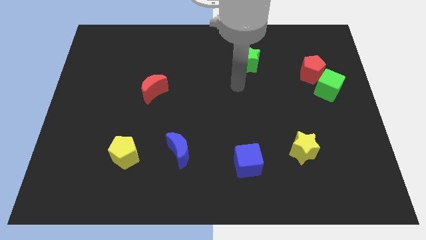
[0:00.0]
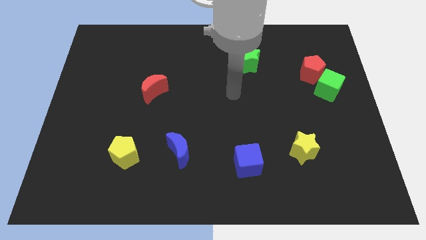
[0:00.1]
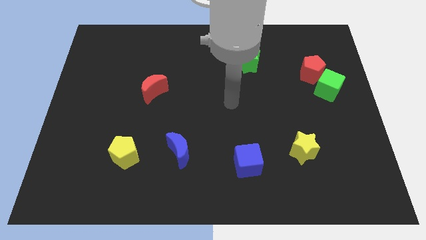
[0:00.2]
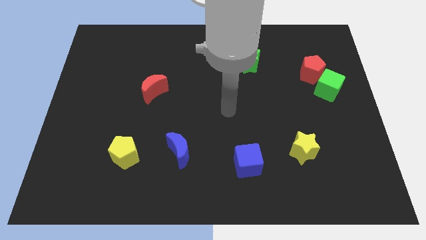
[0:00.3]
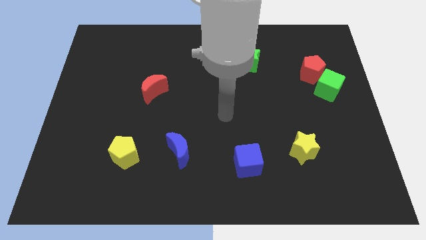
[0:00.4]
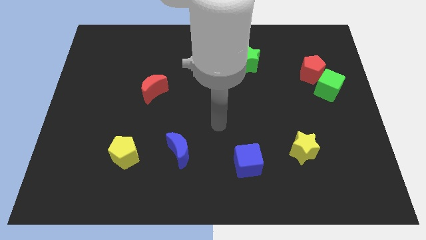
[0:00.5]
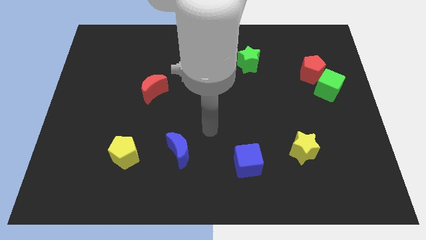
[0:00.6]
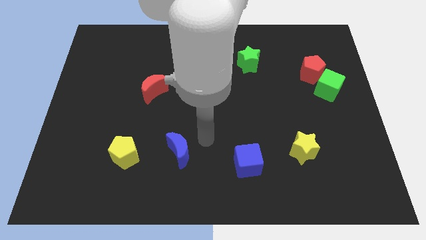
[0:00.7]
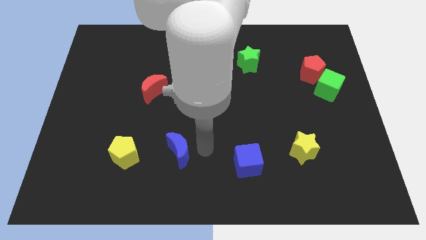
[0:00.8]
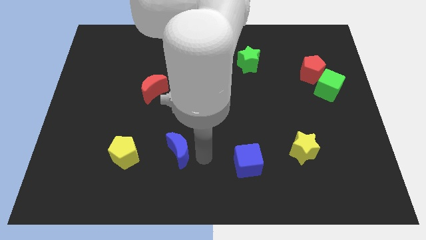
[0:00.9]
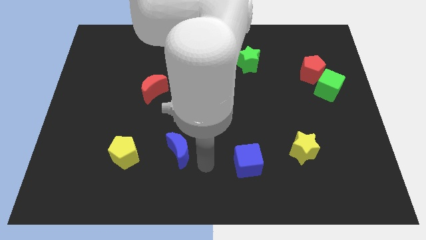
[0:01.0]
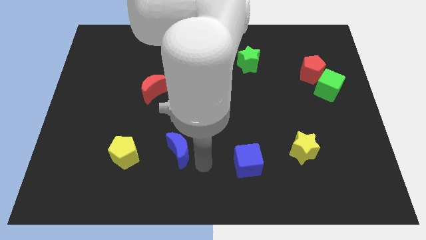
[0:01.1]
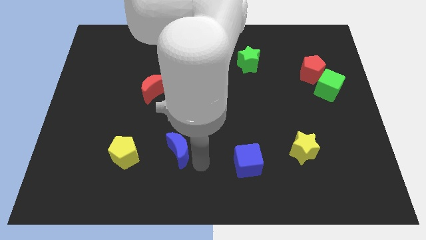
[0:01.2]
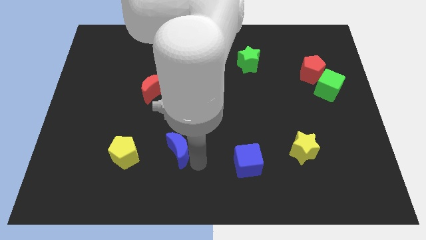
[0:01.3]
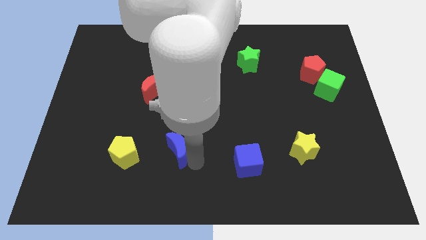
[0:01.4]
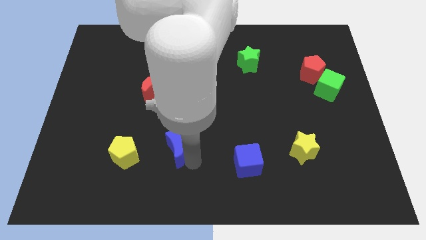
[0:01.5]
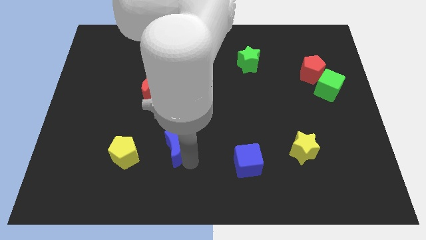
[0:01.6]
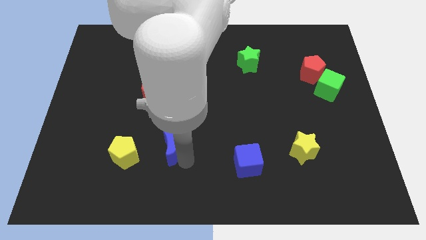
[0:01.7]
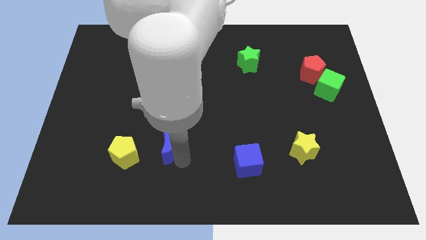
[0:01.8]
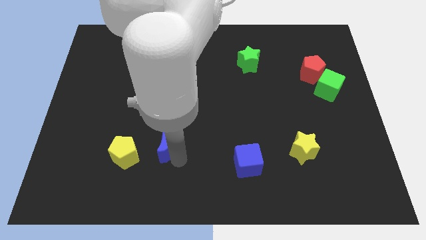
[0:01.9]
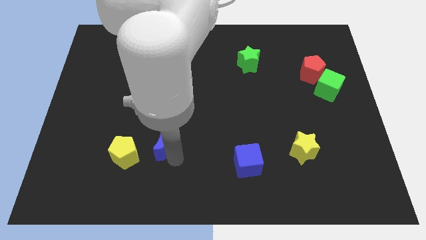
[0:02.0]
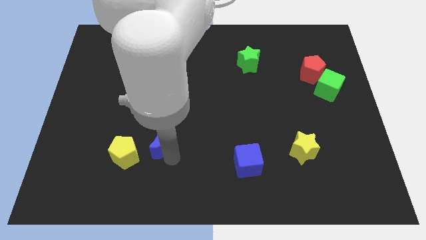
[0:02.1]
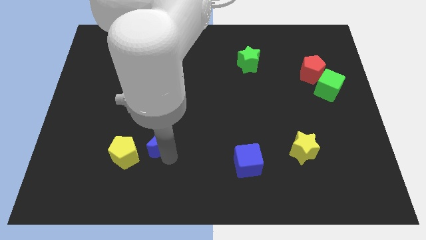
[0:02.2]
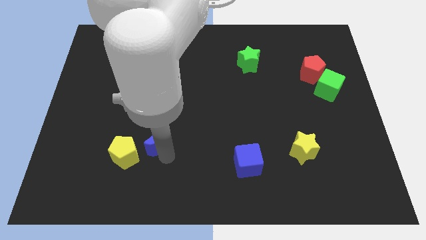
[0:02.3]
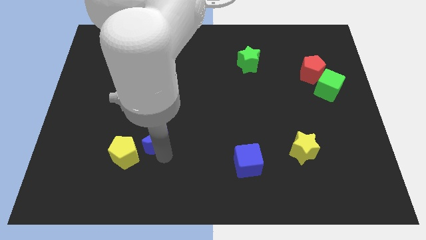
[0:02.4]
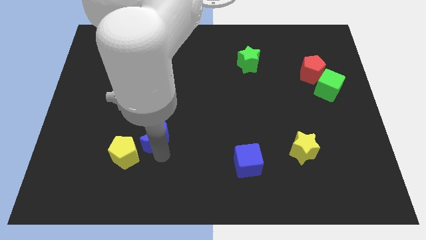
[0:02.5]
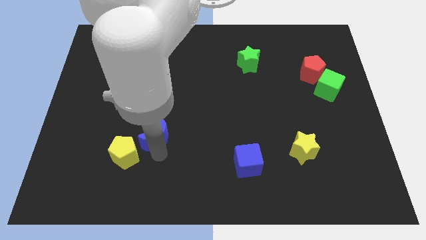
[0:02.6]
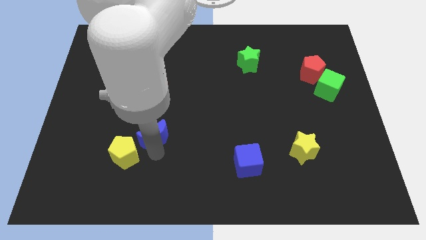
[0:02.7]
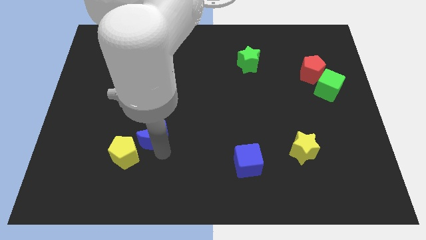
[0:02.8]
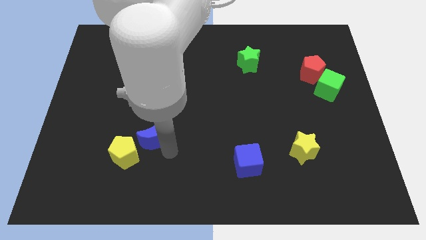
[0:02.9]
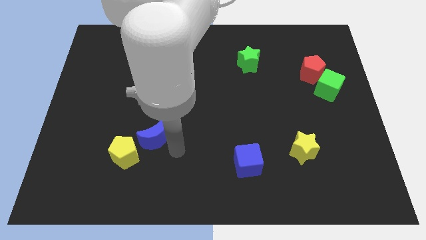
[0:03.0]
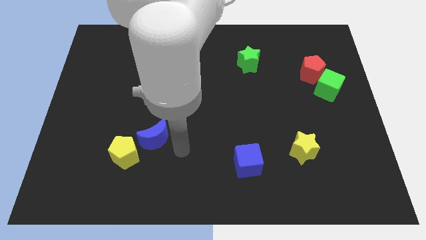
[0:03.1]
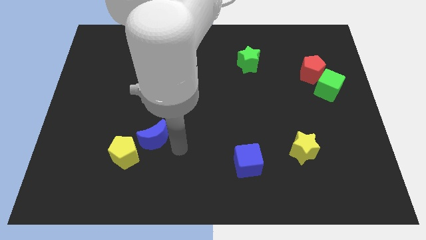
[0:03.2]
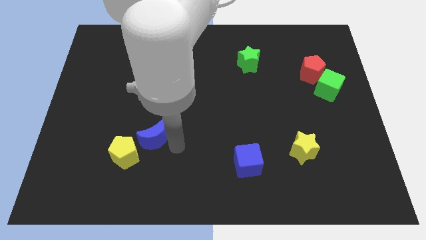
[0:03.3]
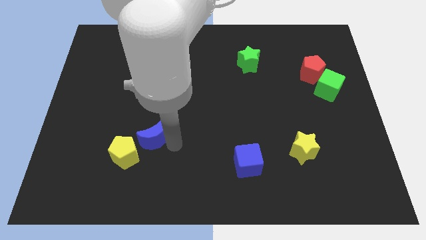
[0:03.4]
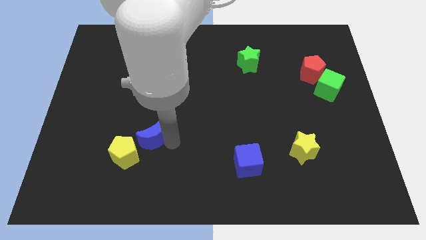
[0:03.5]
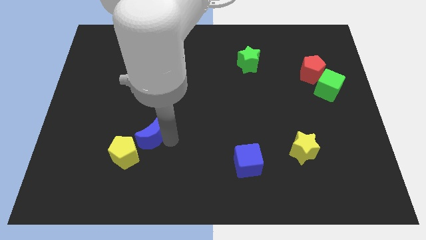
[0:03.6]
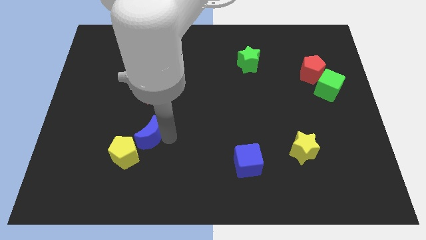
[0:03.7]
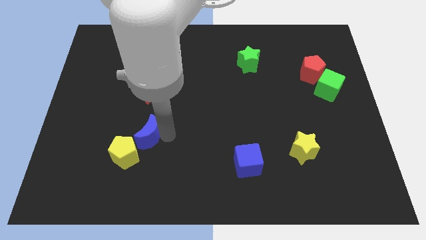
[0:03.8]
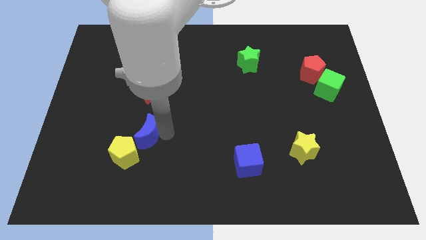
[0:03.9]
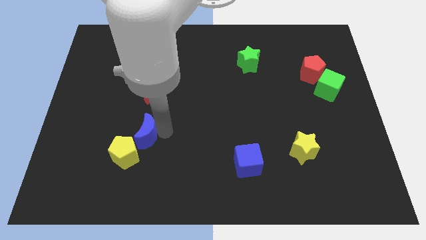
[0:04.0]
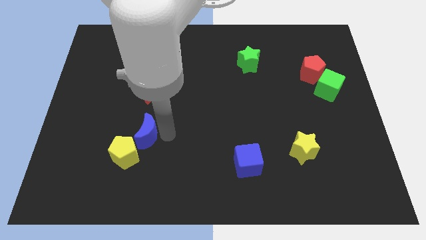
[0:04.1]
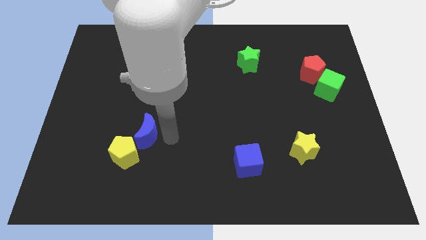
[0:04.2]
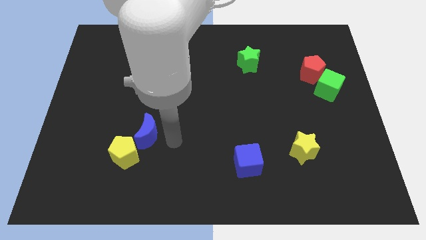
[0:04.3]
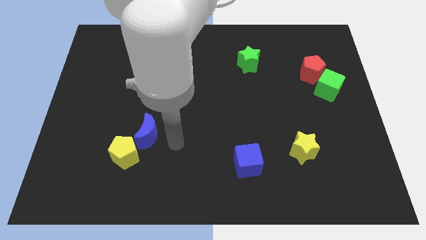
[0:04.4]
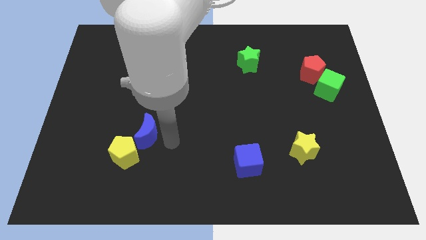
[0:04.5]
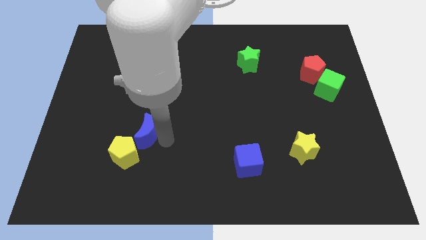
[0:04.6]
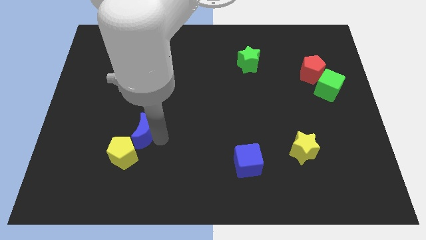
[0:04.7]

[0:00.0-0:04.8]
push the blue moon slightly to the left

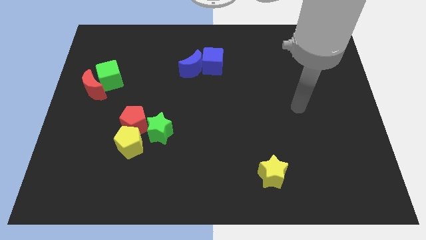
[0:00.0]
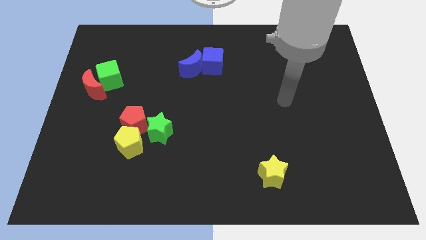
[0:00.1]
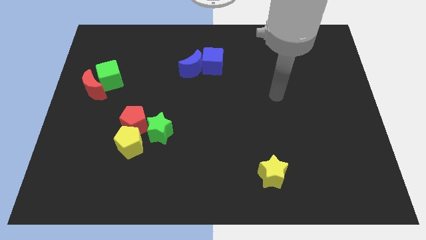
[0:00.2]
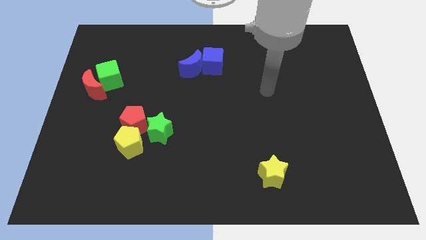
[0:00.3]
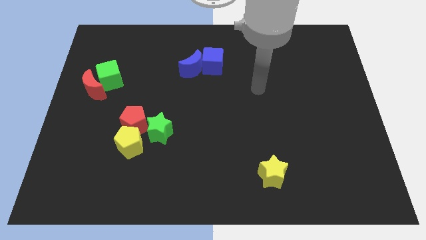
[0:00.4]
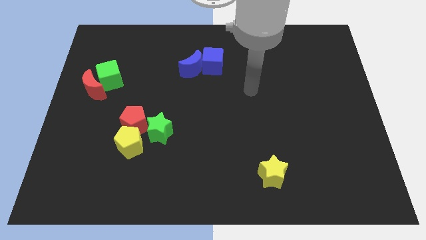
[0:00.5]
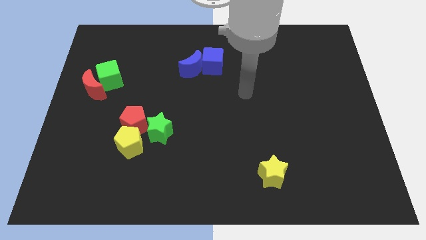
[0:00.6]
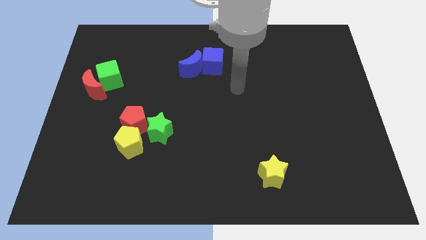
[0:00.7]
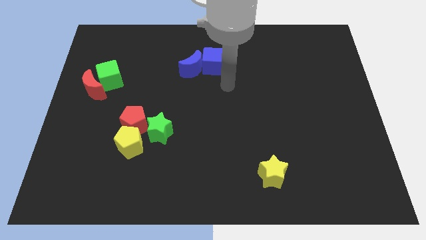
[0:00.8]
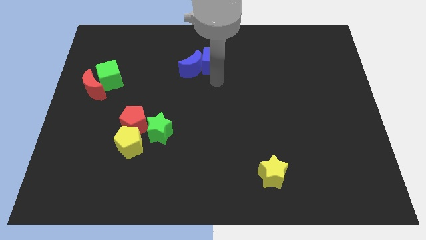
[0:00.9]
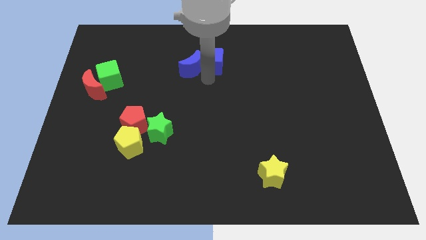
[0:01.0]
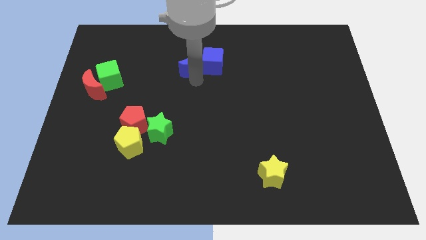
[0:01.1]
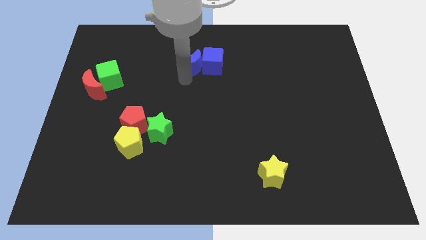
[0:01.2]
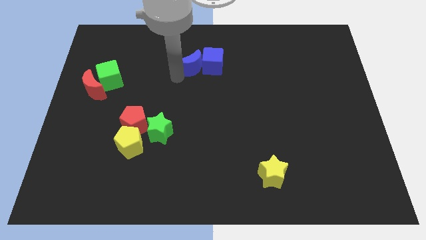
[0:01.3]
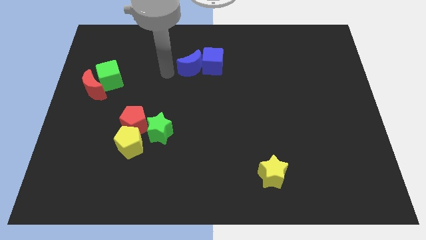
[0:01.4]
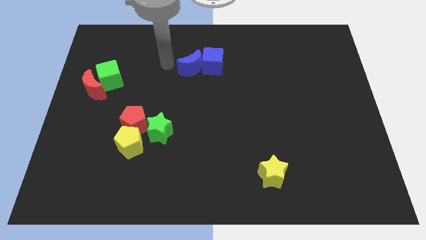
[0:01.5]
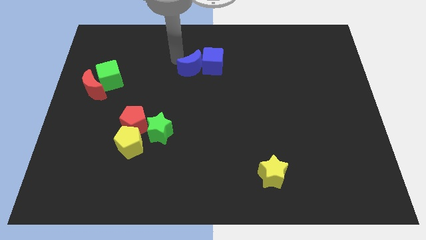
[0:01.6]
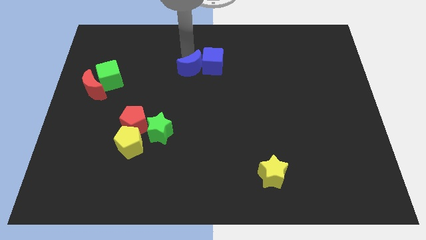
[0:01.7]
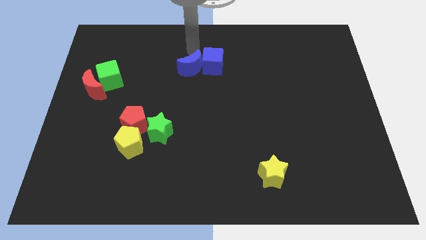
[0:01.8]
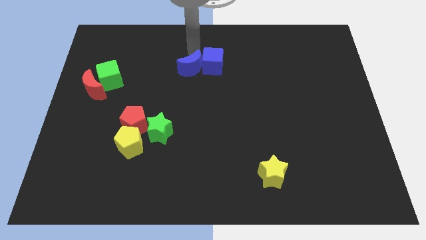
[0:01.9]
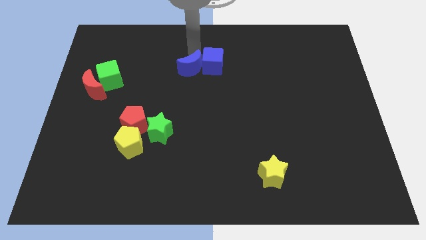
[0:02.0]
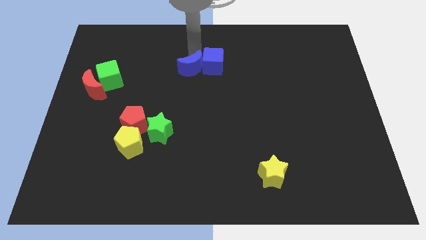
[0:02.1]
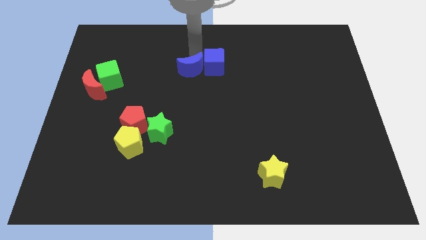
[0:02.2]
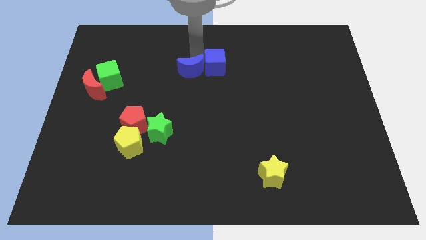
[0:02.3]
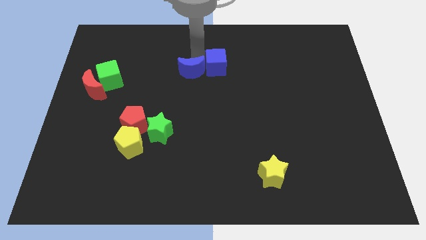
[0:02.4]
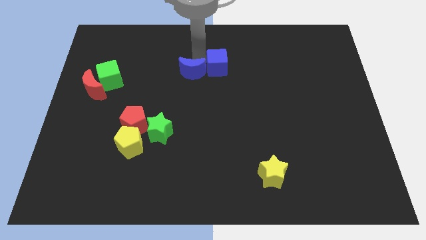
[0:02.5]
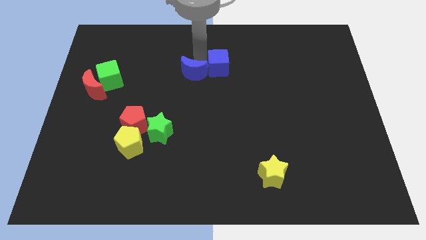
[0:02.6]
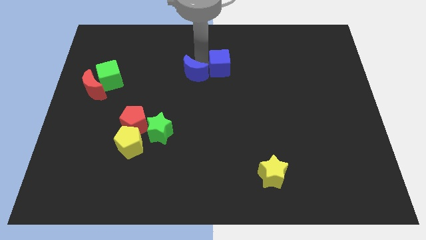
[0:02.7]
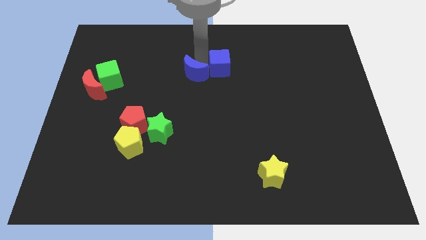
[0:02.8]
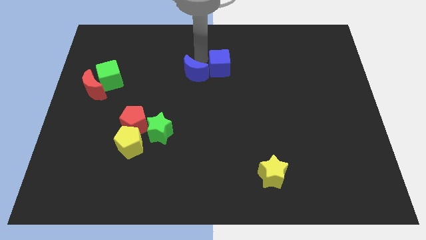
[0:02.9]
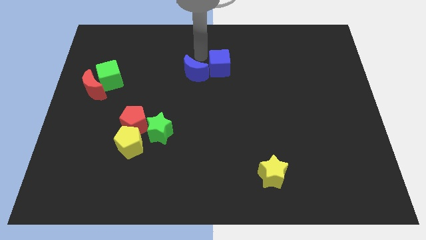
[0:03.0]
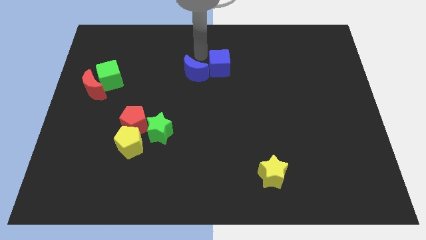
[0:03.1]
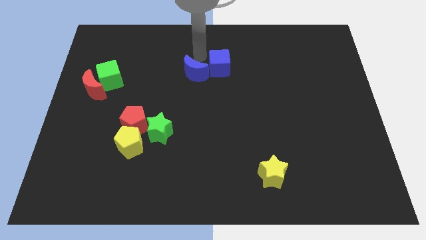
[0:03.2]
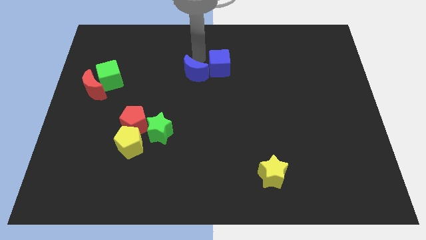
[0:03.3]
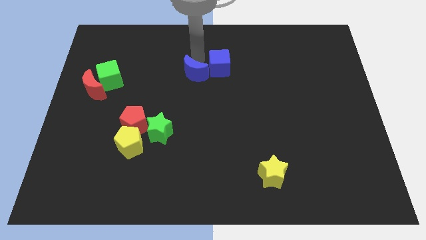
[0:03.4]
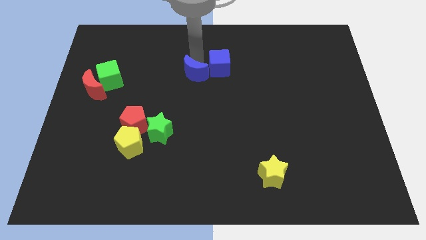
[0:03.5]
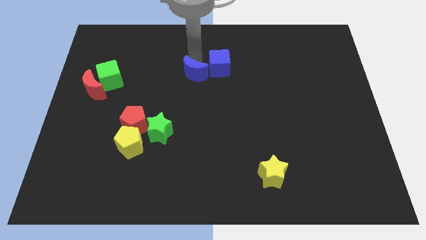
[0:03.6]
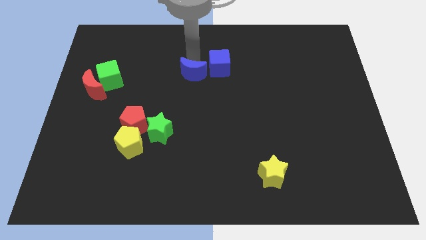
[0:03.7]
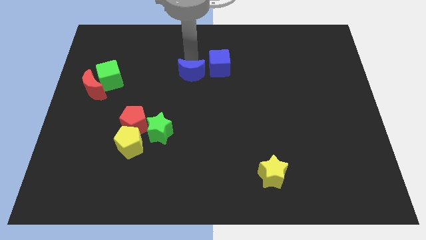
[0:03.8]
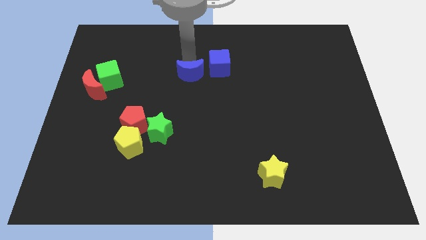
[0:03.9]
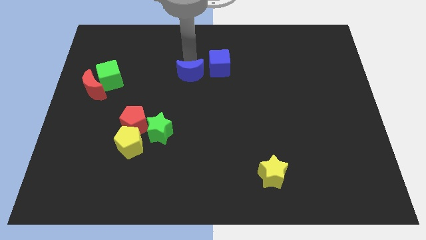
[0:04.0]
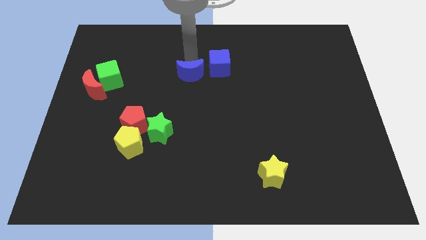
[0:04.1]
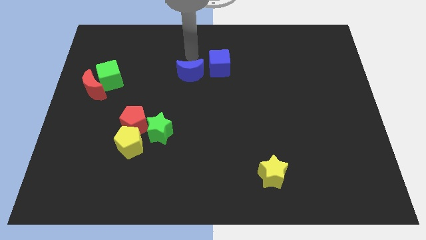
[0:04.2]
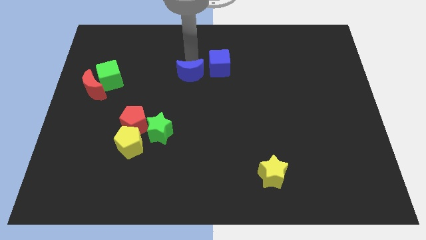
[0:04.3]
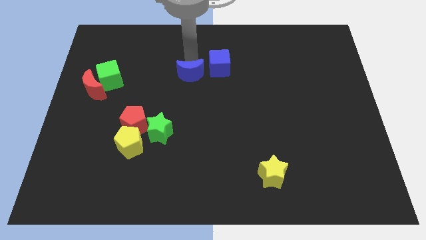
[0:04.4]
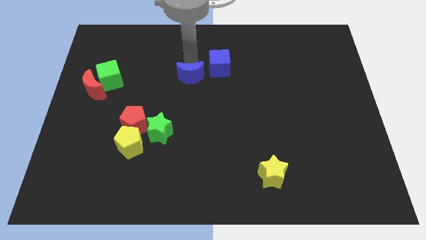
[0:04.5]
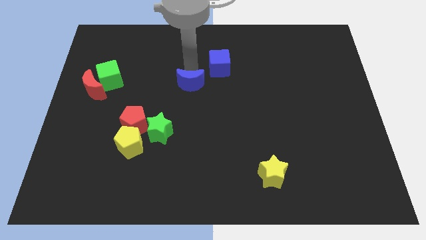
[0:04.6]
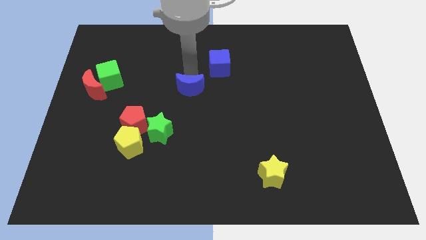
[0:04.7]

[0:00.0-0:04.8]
slightly push the blue moon downwards
